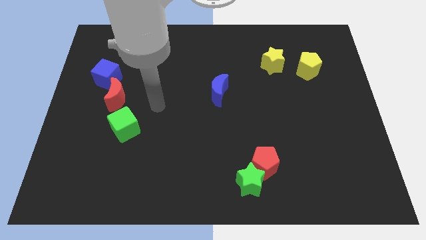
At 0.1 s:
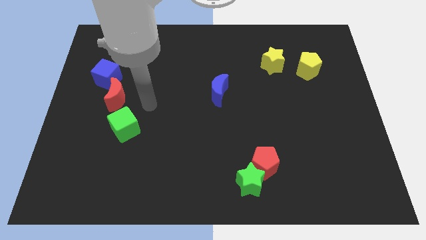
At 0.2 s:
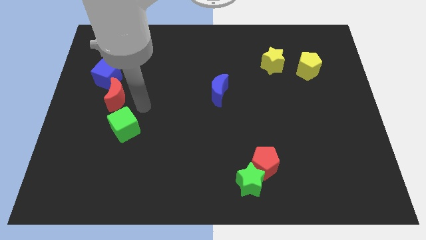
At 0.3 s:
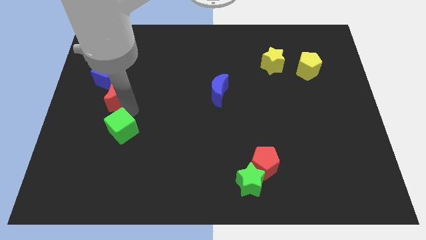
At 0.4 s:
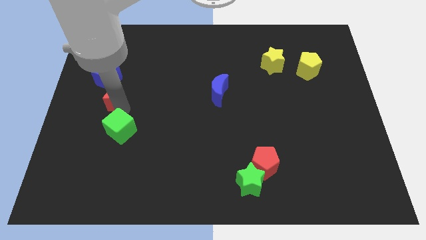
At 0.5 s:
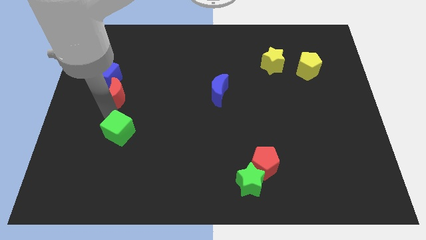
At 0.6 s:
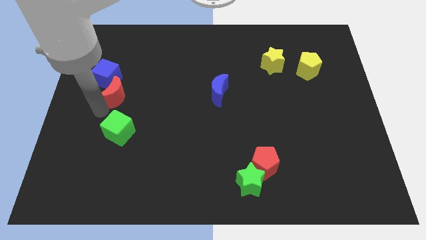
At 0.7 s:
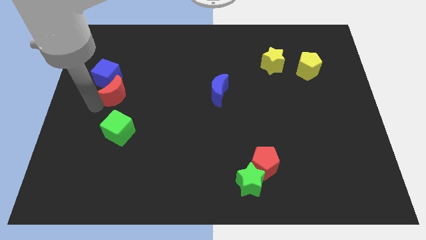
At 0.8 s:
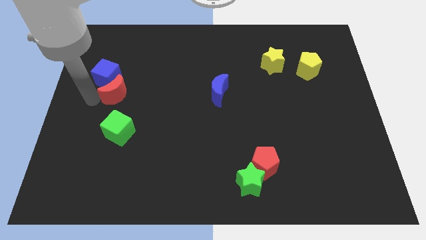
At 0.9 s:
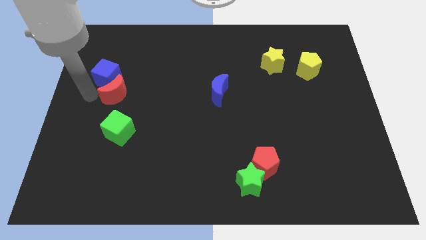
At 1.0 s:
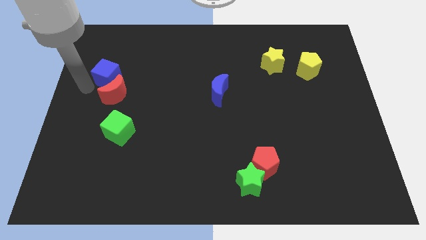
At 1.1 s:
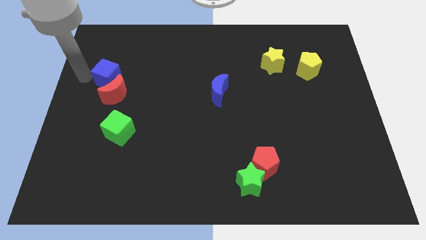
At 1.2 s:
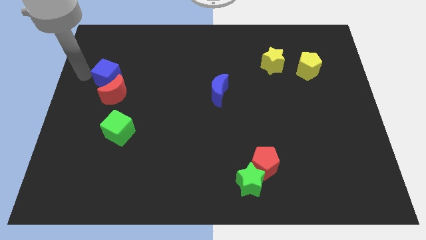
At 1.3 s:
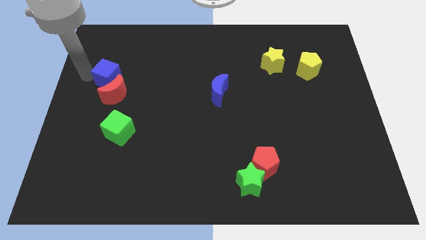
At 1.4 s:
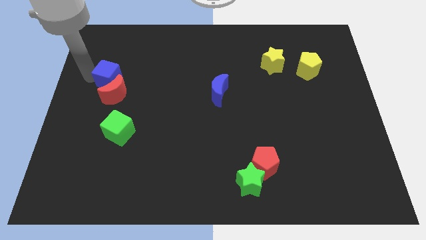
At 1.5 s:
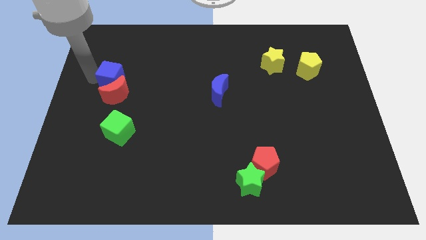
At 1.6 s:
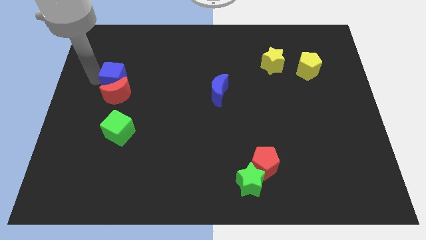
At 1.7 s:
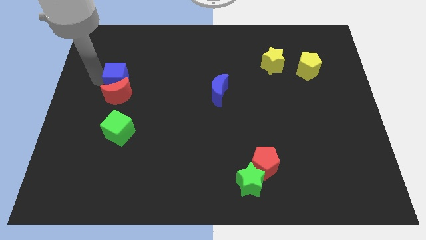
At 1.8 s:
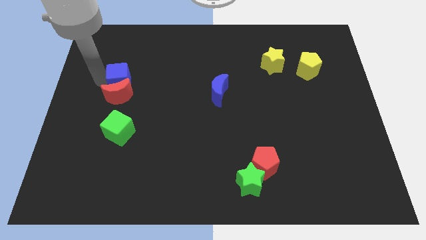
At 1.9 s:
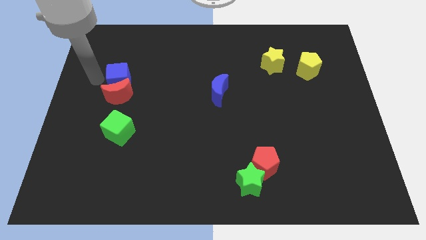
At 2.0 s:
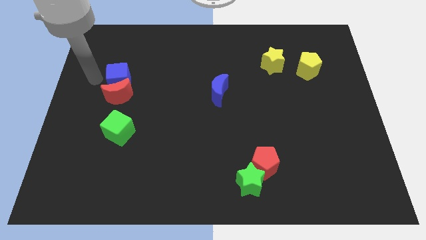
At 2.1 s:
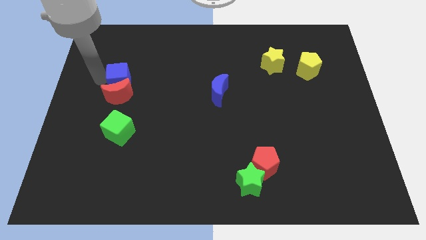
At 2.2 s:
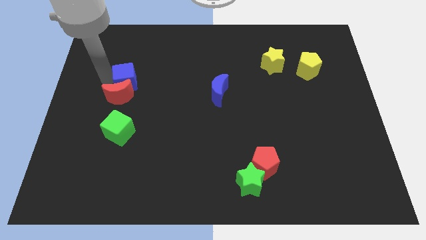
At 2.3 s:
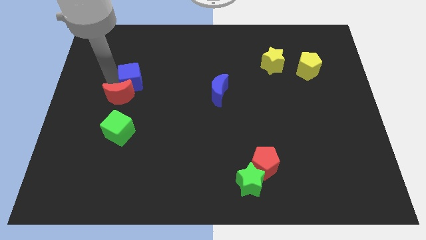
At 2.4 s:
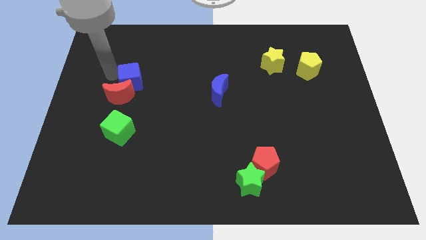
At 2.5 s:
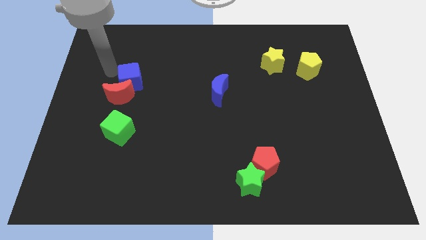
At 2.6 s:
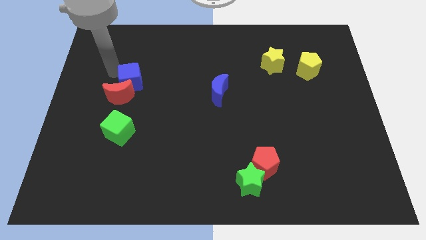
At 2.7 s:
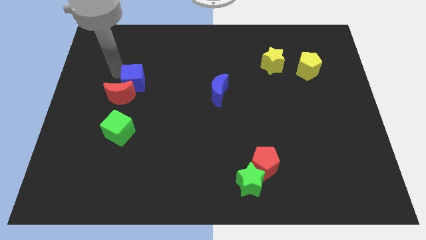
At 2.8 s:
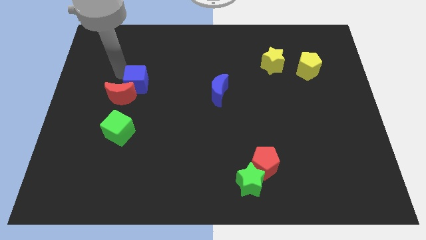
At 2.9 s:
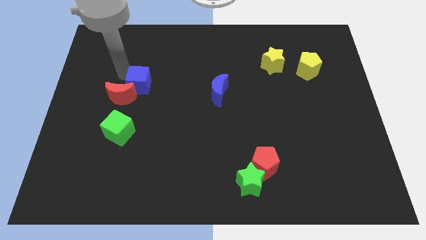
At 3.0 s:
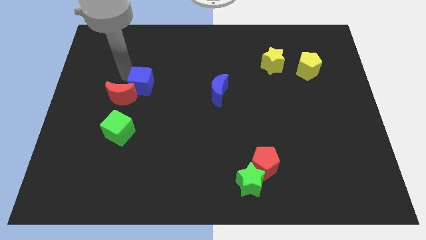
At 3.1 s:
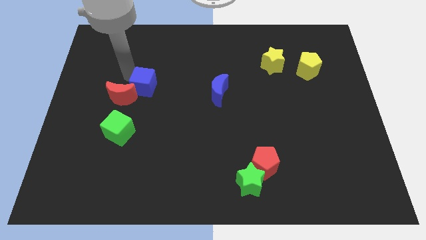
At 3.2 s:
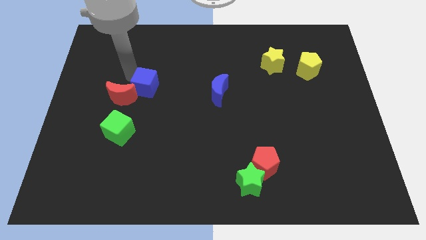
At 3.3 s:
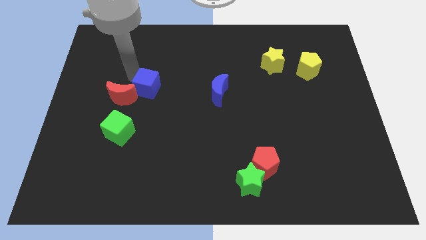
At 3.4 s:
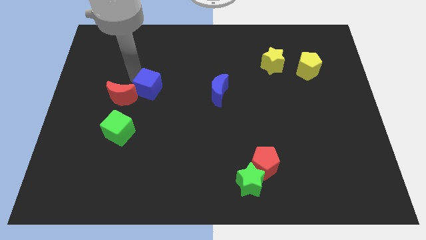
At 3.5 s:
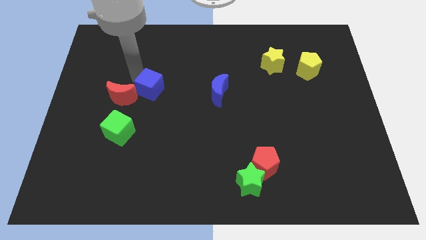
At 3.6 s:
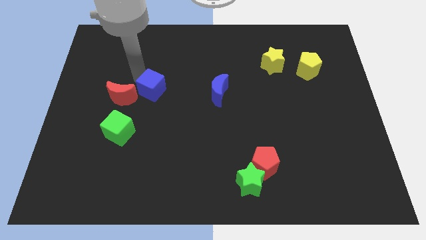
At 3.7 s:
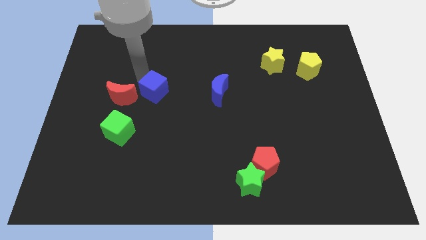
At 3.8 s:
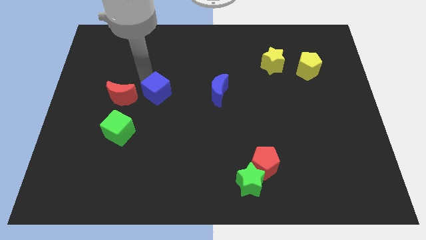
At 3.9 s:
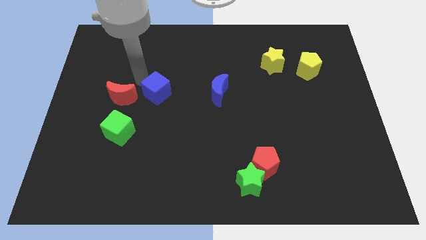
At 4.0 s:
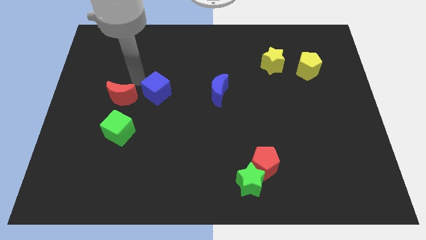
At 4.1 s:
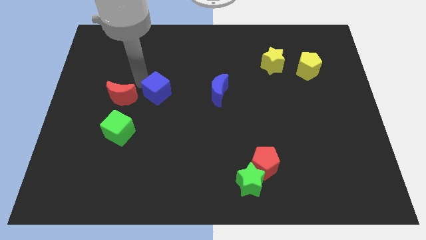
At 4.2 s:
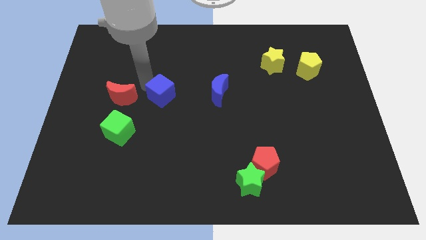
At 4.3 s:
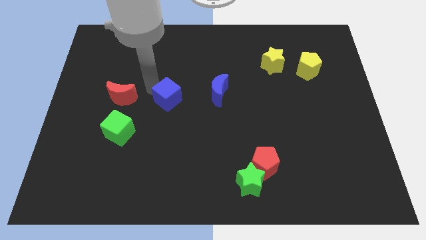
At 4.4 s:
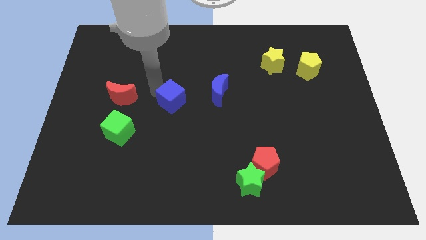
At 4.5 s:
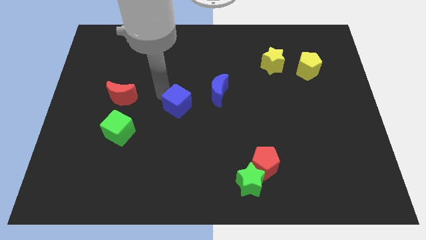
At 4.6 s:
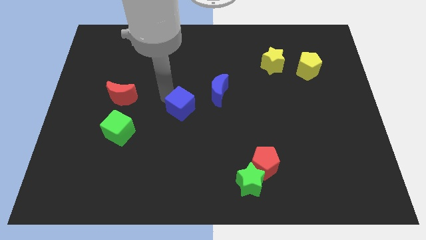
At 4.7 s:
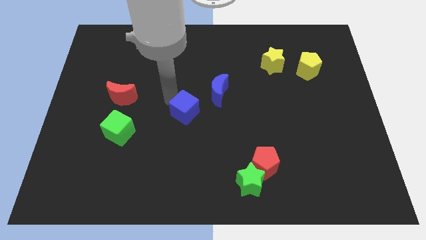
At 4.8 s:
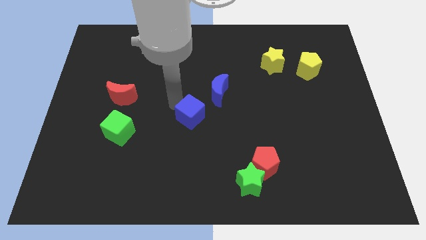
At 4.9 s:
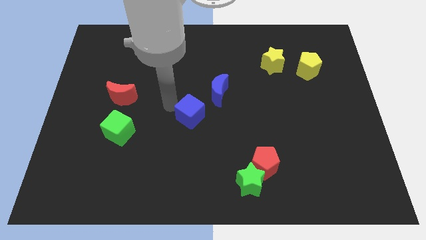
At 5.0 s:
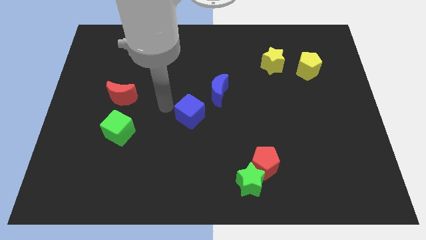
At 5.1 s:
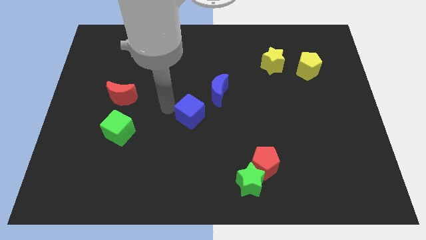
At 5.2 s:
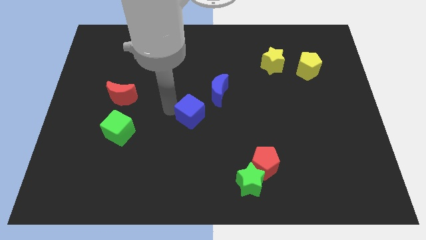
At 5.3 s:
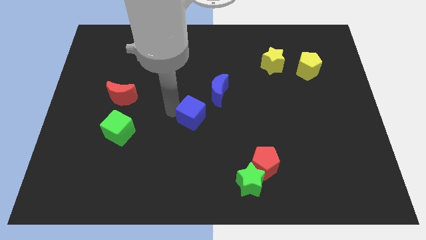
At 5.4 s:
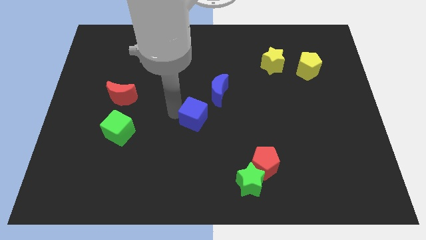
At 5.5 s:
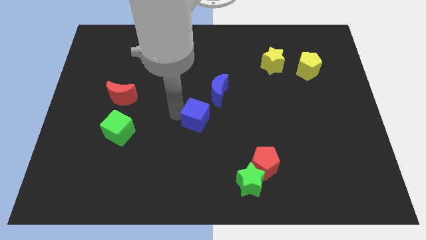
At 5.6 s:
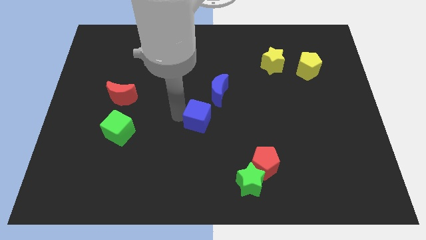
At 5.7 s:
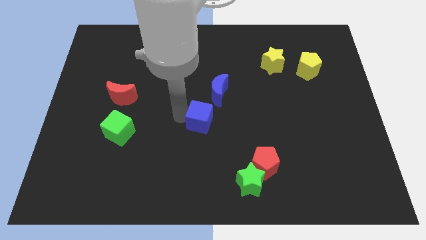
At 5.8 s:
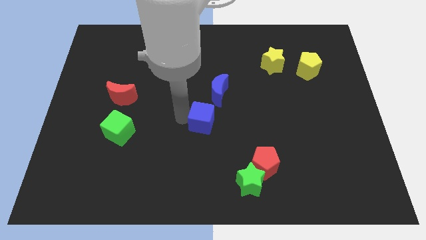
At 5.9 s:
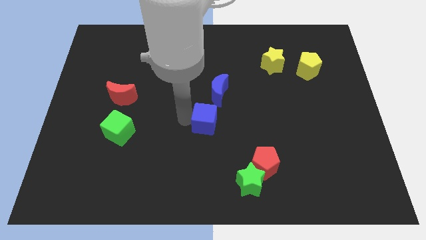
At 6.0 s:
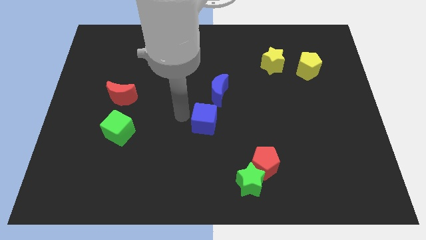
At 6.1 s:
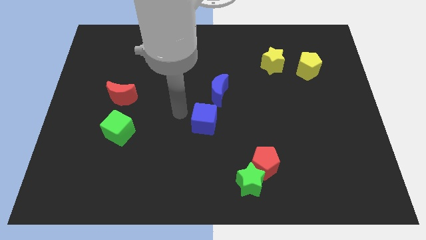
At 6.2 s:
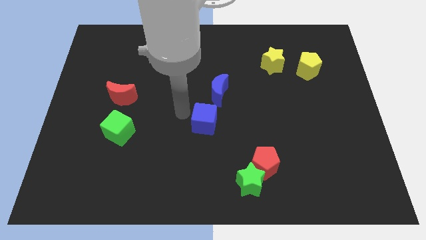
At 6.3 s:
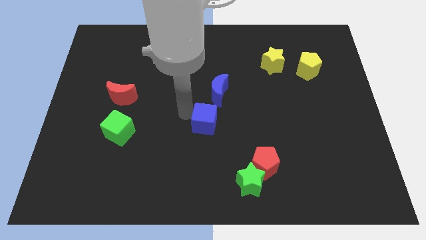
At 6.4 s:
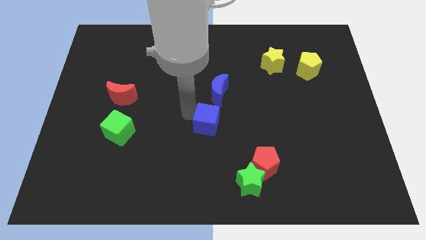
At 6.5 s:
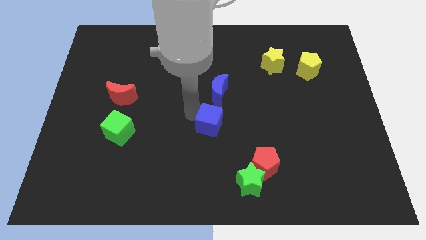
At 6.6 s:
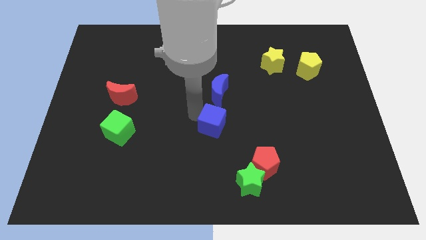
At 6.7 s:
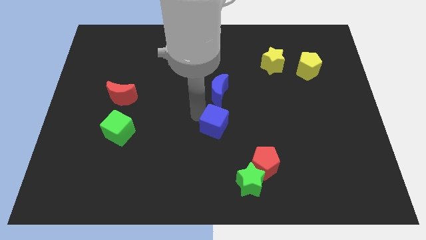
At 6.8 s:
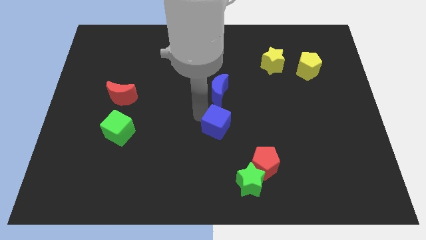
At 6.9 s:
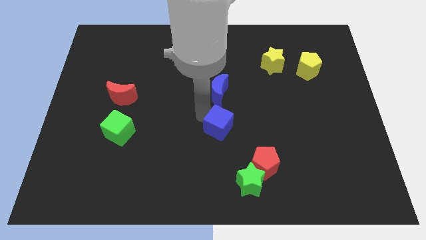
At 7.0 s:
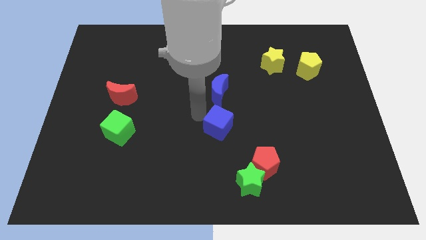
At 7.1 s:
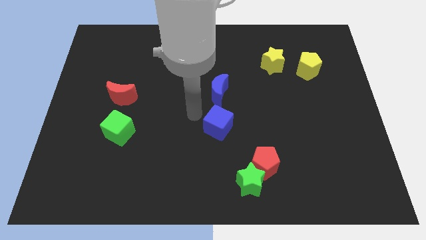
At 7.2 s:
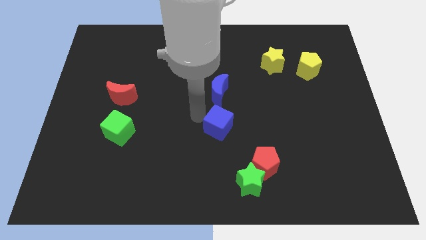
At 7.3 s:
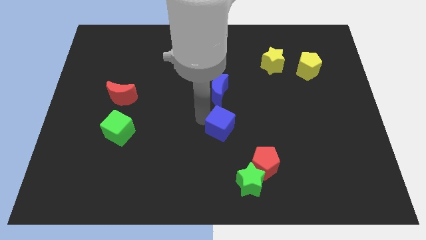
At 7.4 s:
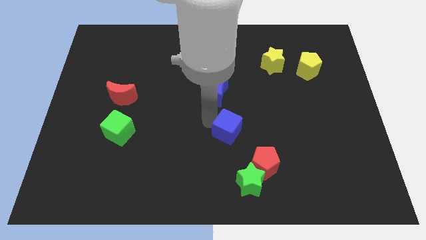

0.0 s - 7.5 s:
move the blue cube to the top side of the green star
